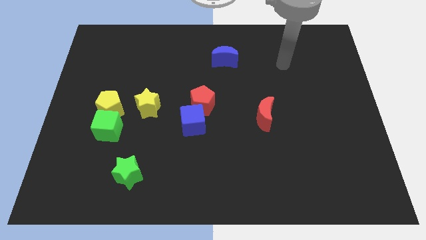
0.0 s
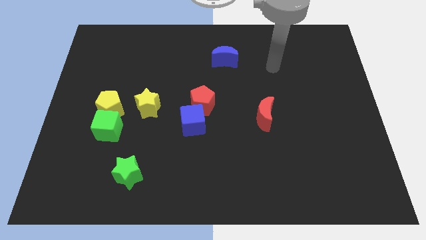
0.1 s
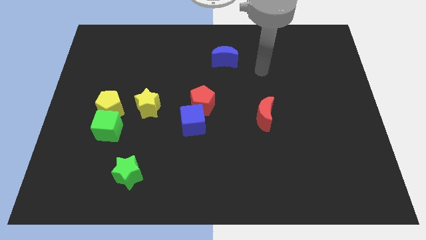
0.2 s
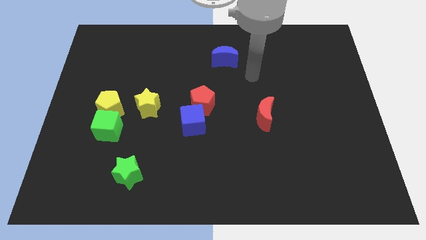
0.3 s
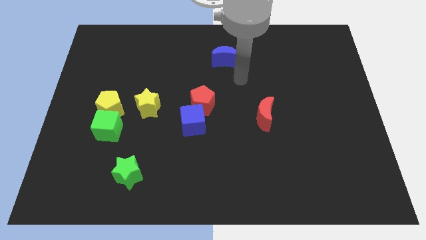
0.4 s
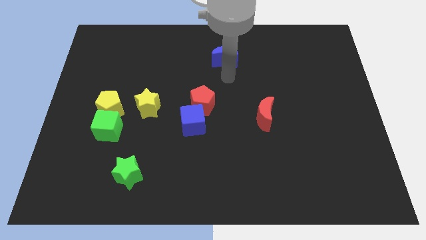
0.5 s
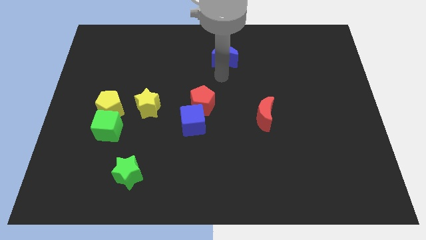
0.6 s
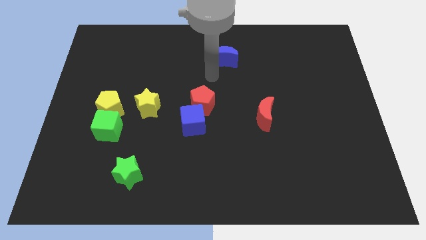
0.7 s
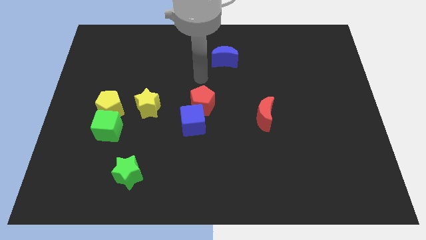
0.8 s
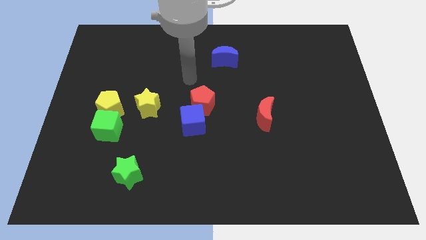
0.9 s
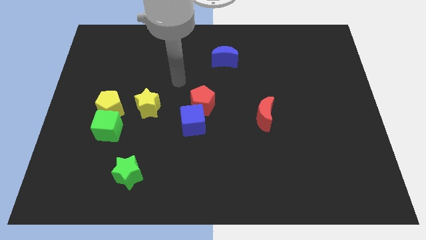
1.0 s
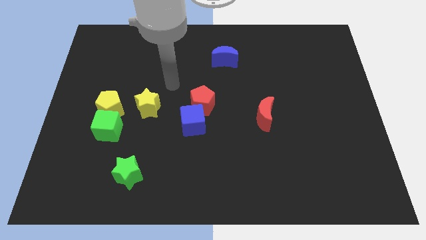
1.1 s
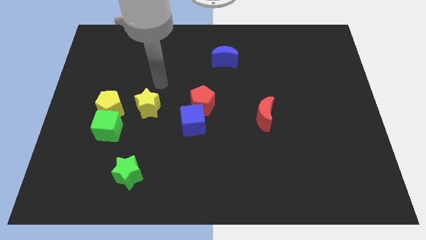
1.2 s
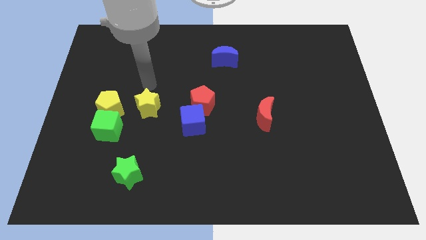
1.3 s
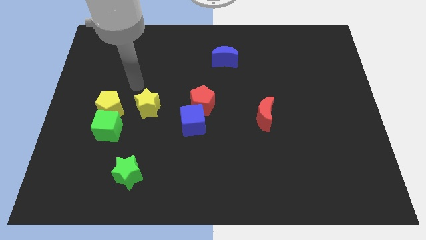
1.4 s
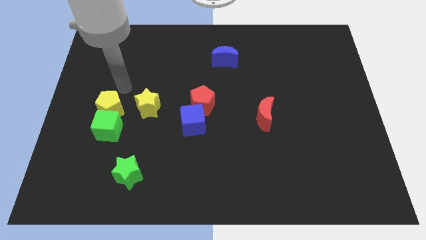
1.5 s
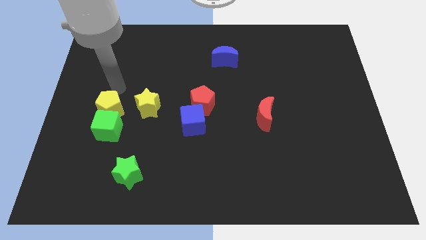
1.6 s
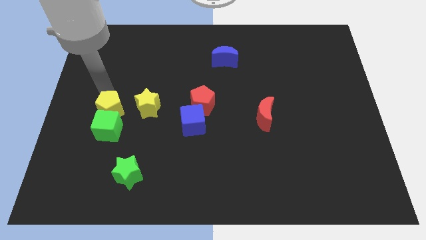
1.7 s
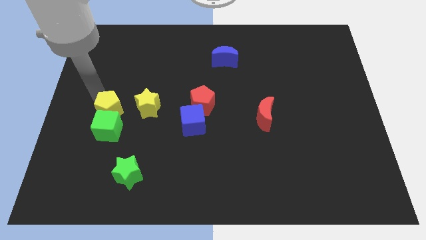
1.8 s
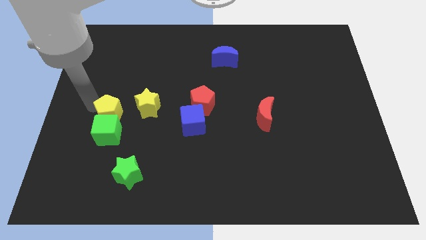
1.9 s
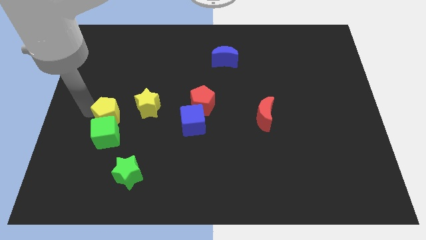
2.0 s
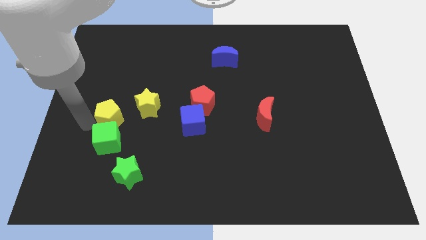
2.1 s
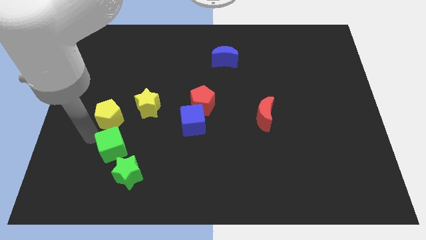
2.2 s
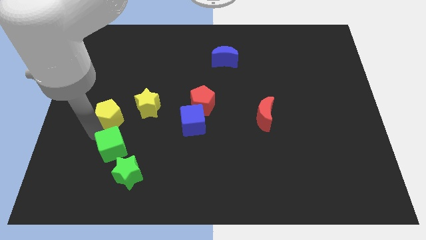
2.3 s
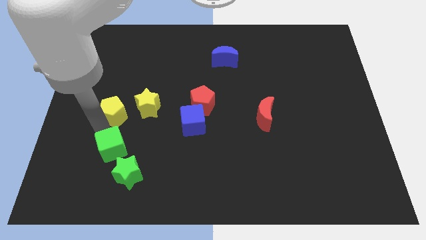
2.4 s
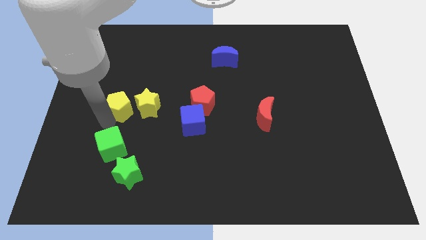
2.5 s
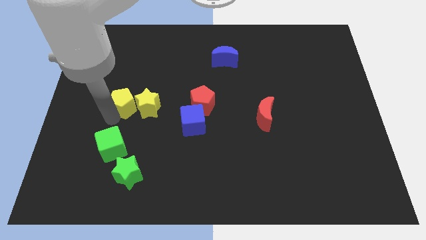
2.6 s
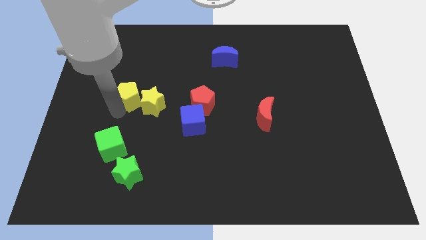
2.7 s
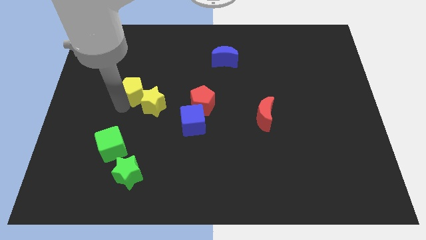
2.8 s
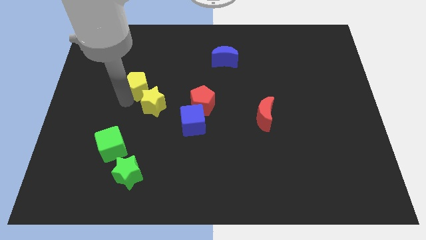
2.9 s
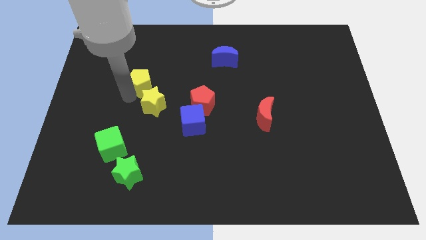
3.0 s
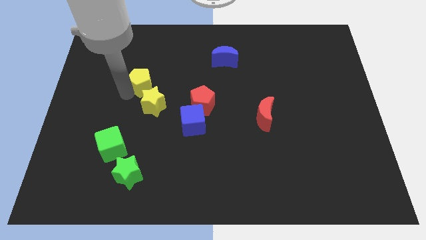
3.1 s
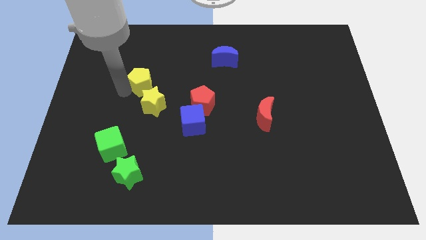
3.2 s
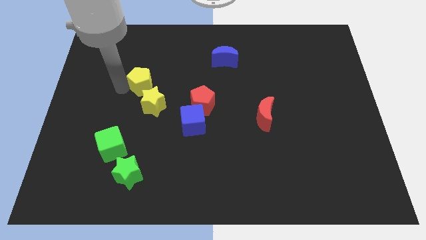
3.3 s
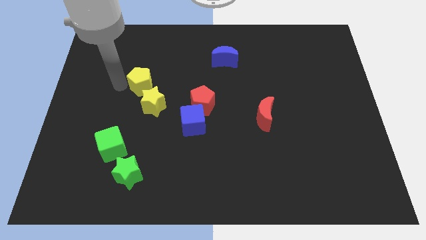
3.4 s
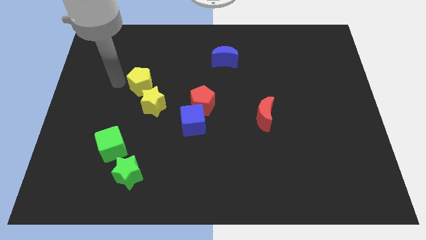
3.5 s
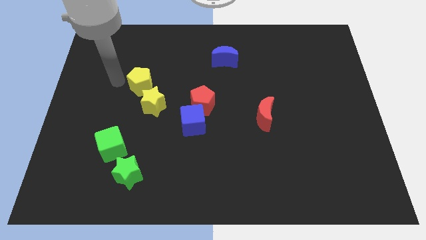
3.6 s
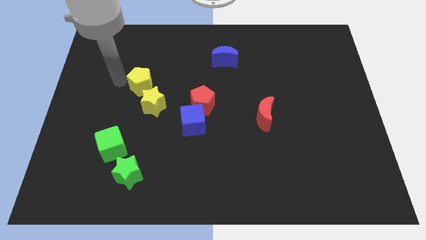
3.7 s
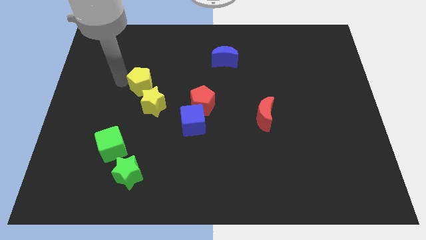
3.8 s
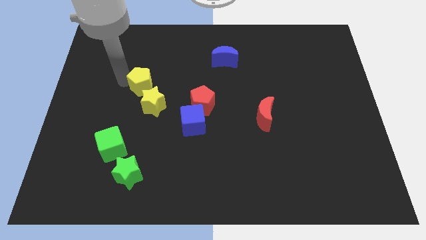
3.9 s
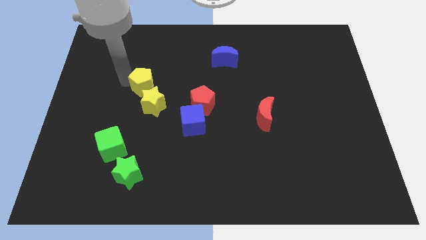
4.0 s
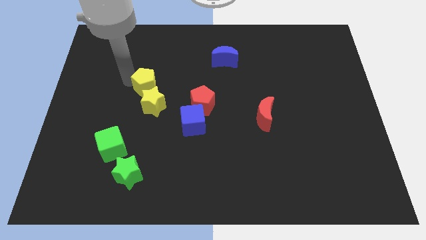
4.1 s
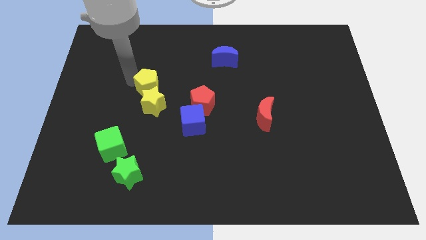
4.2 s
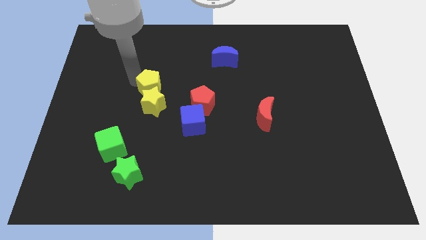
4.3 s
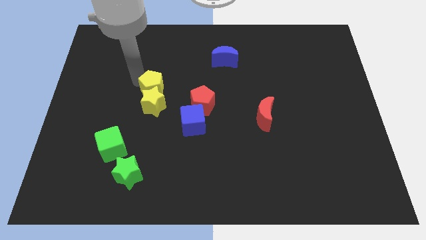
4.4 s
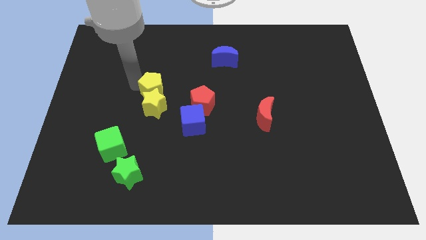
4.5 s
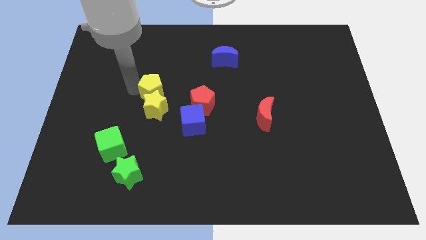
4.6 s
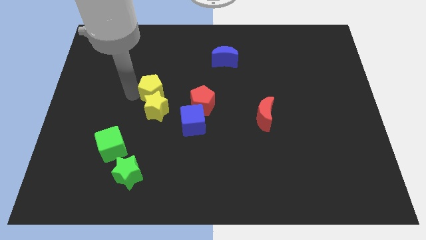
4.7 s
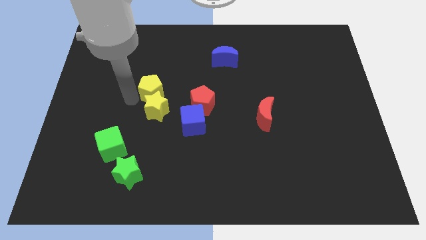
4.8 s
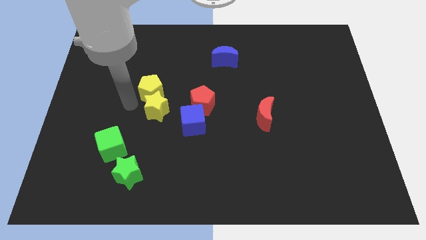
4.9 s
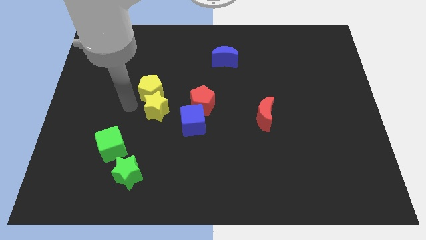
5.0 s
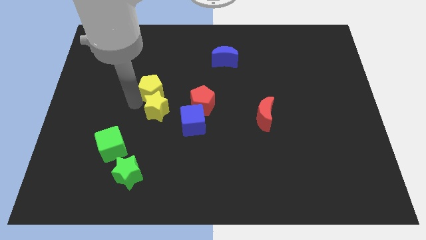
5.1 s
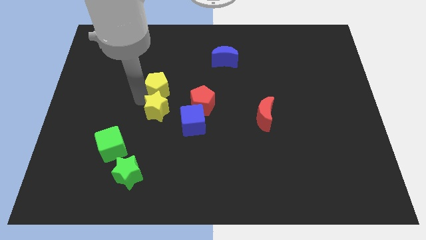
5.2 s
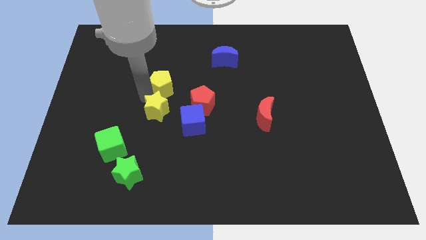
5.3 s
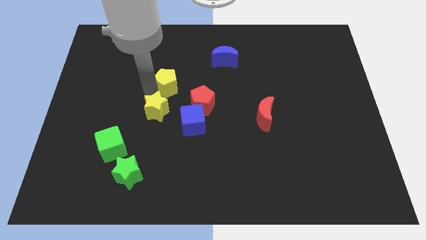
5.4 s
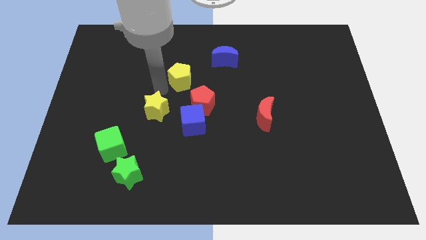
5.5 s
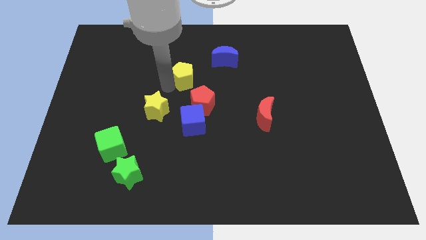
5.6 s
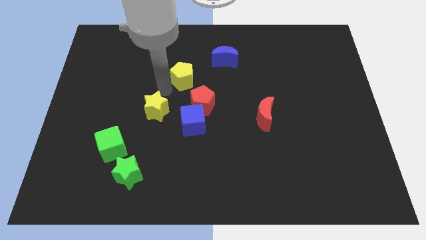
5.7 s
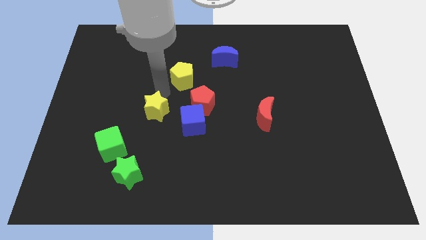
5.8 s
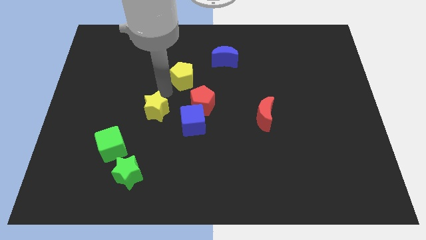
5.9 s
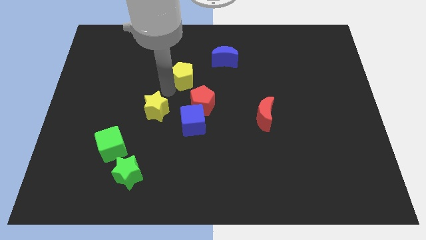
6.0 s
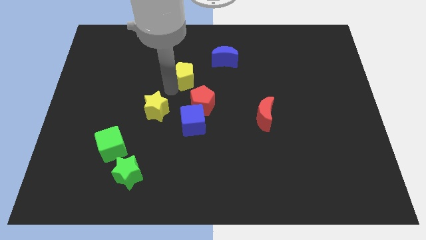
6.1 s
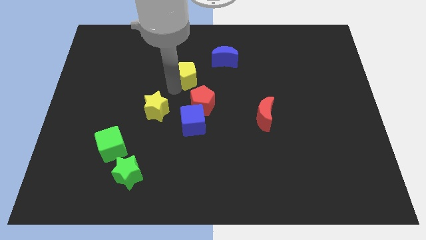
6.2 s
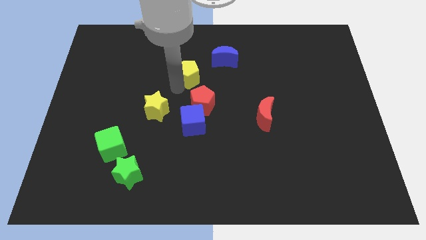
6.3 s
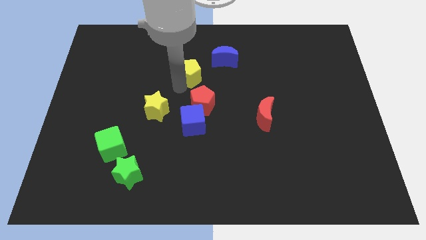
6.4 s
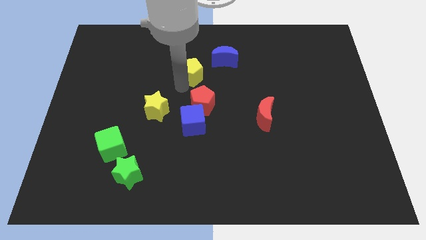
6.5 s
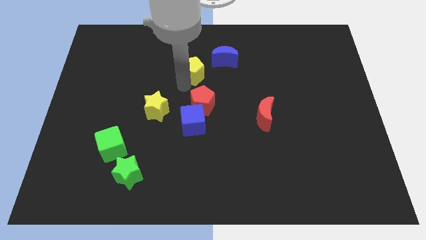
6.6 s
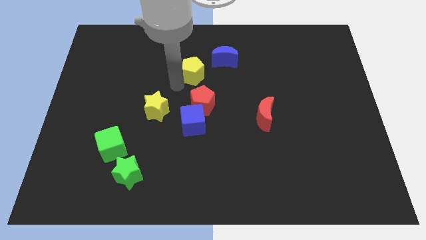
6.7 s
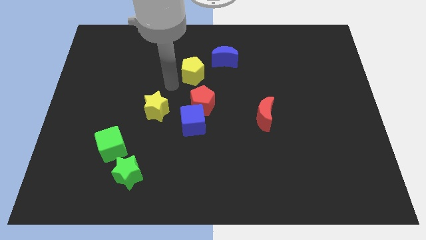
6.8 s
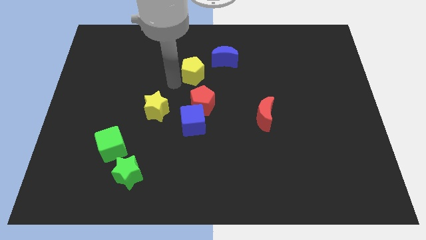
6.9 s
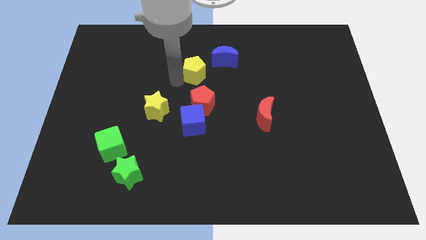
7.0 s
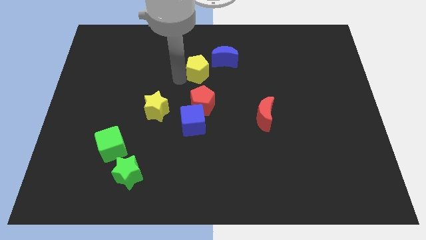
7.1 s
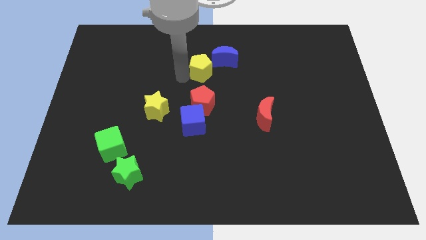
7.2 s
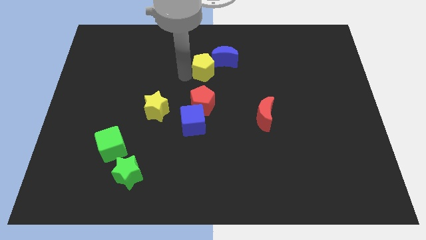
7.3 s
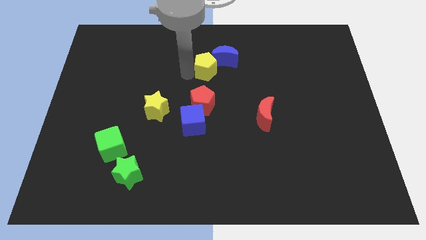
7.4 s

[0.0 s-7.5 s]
move the yellow pentagon towards the blue moon
